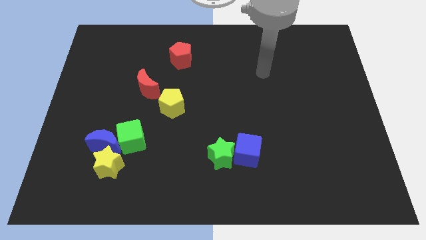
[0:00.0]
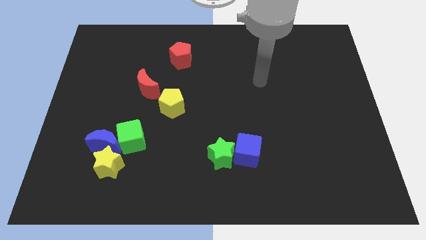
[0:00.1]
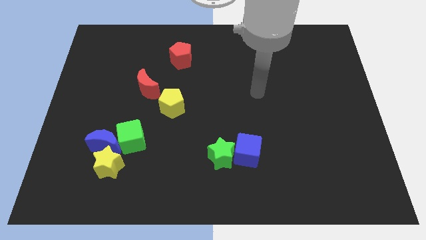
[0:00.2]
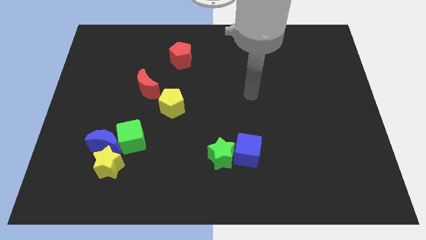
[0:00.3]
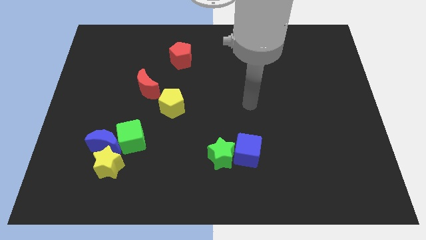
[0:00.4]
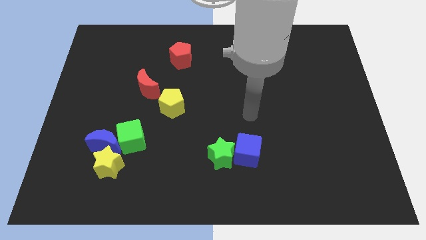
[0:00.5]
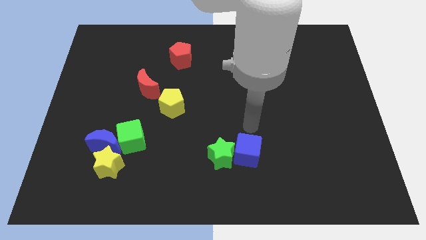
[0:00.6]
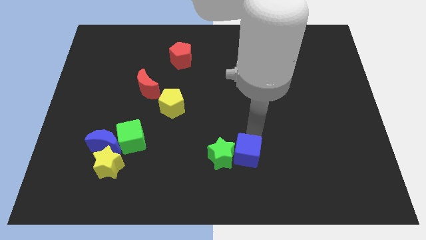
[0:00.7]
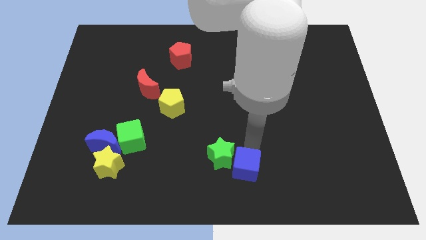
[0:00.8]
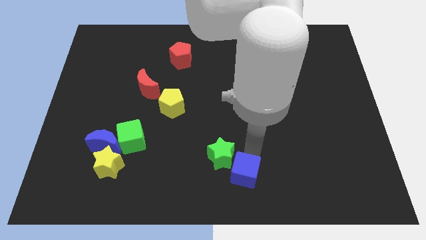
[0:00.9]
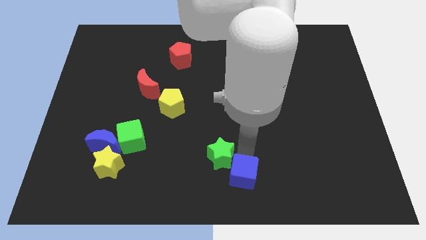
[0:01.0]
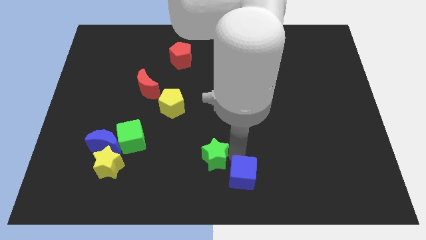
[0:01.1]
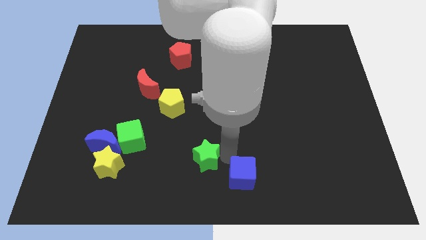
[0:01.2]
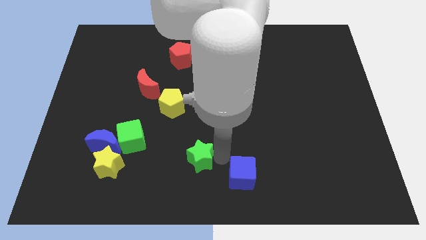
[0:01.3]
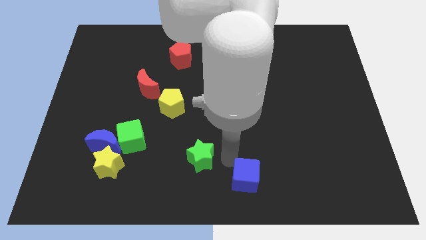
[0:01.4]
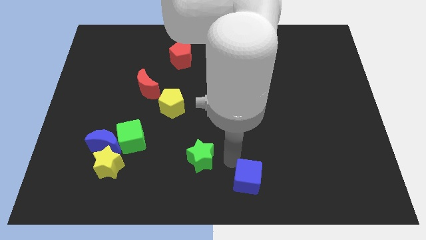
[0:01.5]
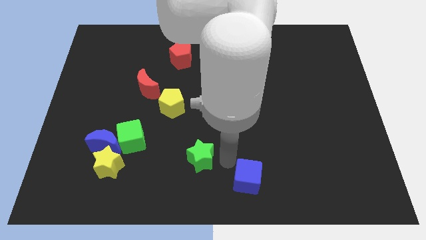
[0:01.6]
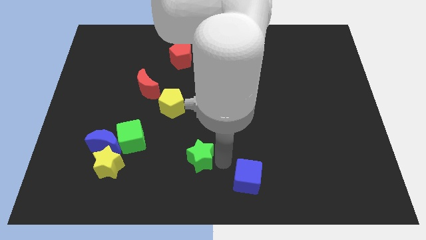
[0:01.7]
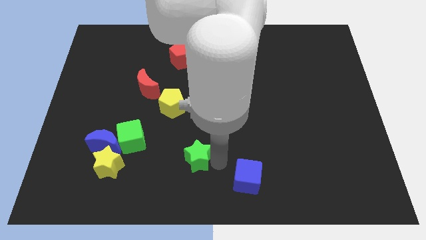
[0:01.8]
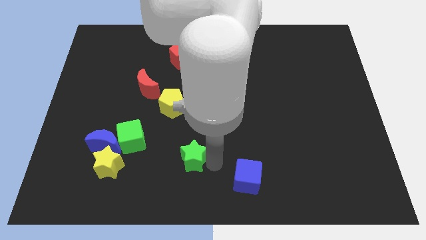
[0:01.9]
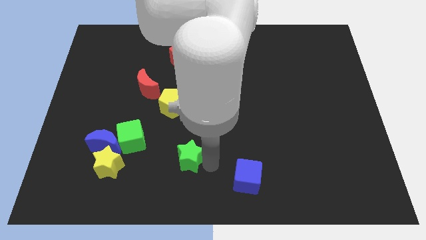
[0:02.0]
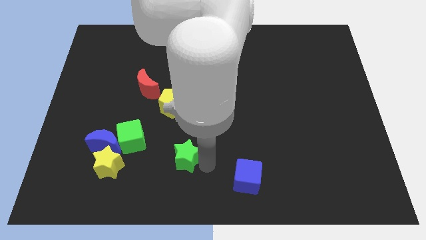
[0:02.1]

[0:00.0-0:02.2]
slightly slide the green star to the left

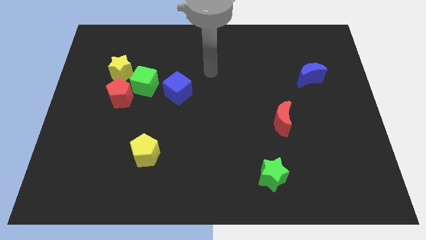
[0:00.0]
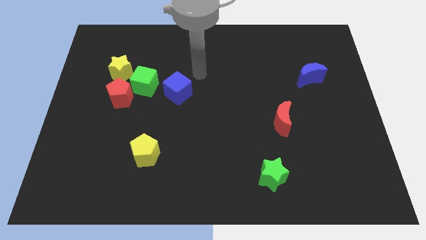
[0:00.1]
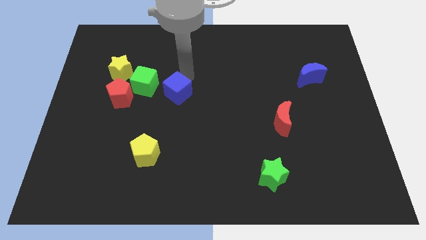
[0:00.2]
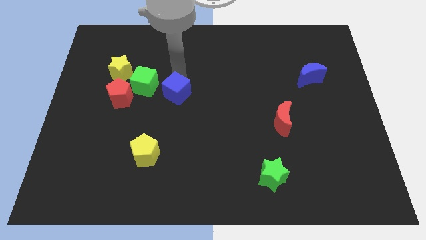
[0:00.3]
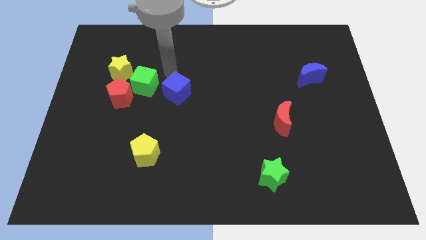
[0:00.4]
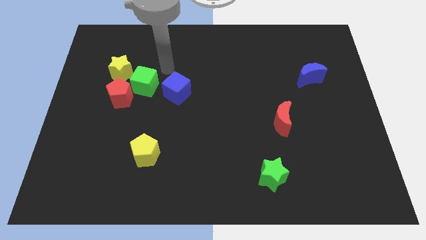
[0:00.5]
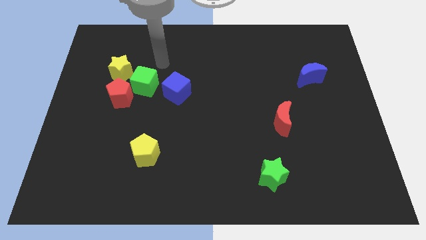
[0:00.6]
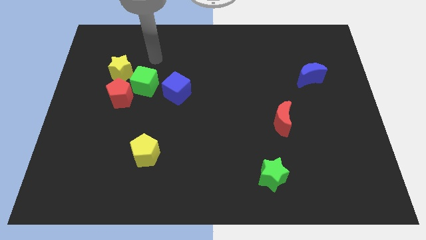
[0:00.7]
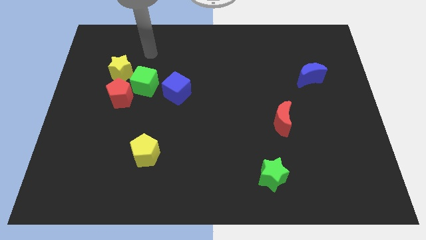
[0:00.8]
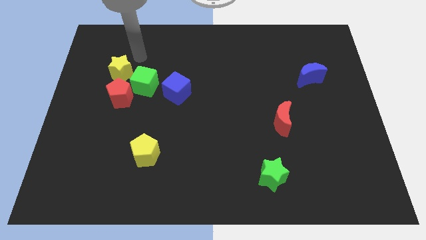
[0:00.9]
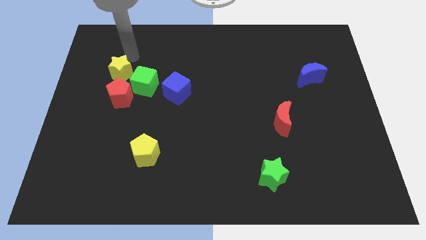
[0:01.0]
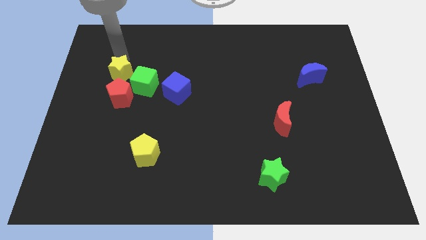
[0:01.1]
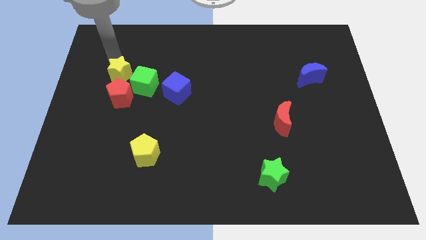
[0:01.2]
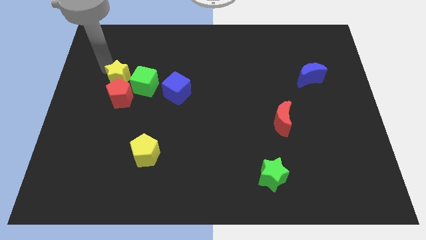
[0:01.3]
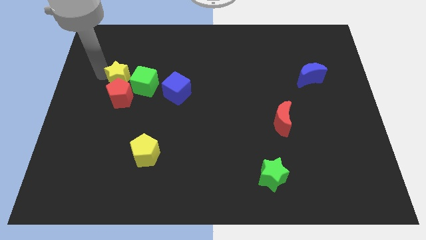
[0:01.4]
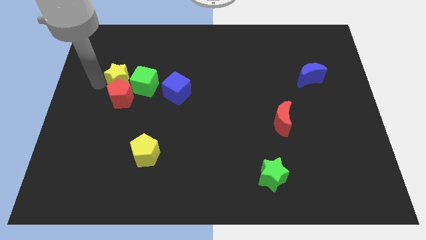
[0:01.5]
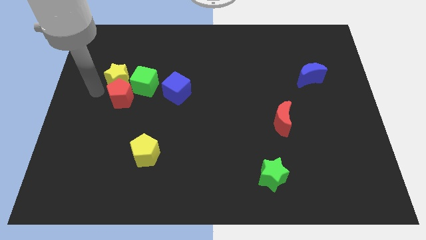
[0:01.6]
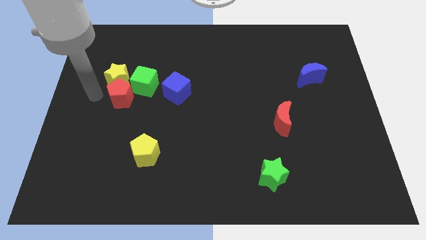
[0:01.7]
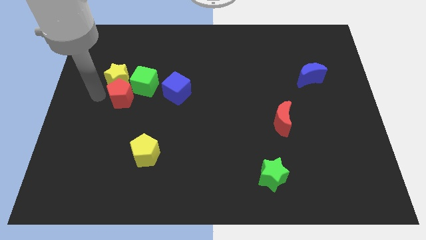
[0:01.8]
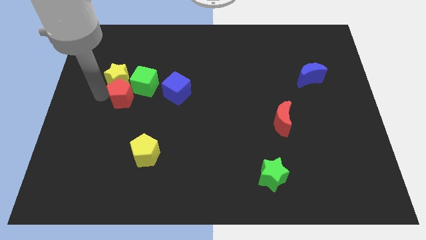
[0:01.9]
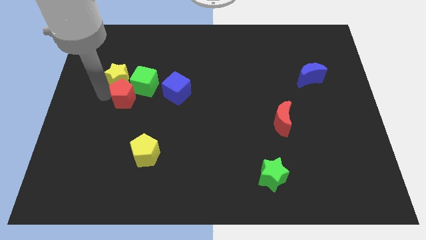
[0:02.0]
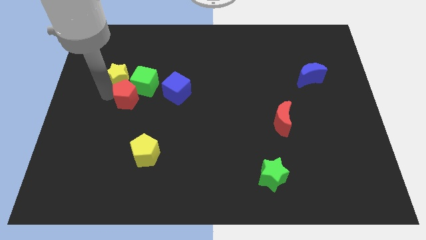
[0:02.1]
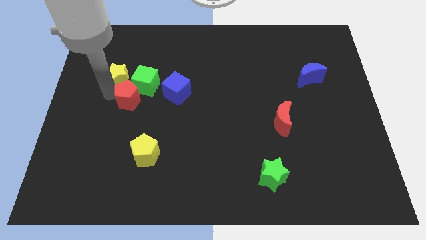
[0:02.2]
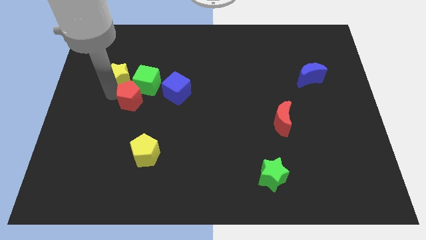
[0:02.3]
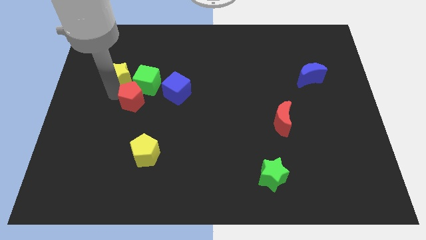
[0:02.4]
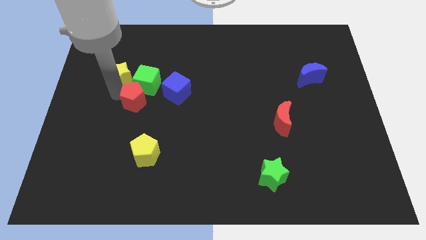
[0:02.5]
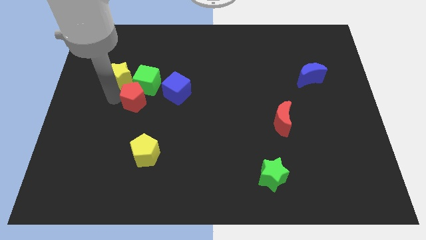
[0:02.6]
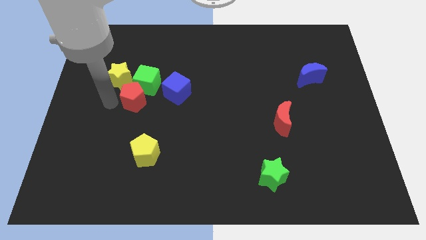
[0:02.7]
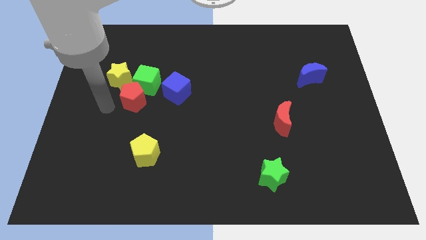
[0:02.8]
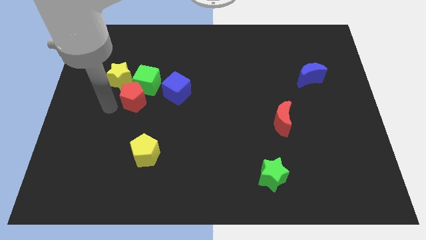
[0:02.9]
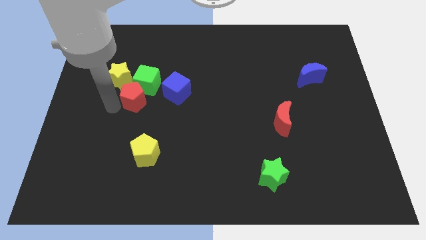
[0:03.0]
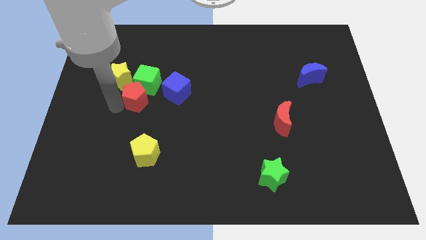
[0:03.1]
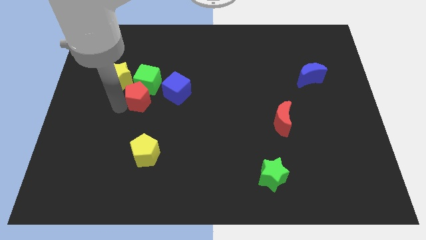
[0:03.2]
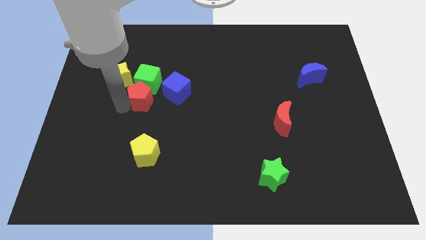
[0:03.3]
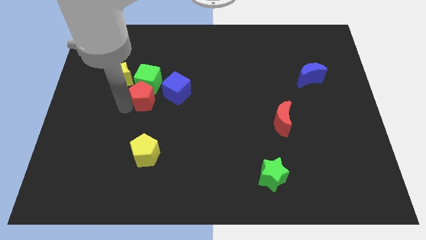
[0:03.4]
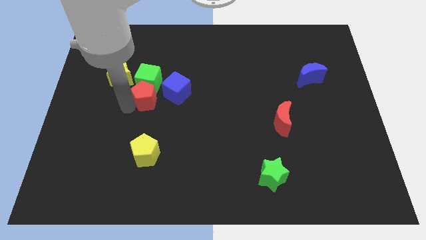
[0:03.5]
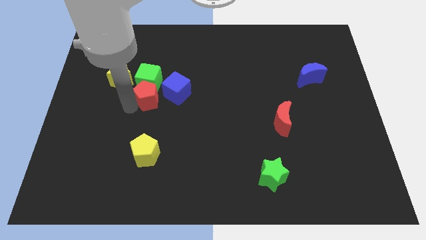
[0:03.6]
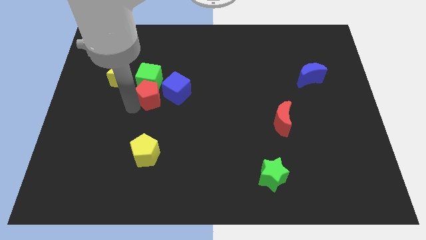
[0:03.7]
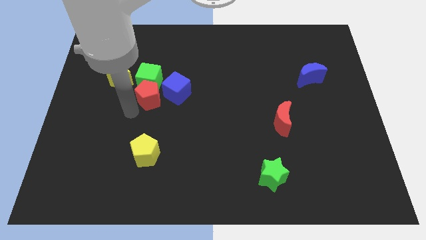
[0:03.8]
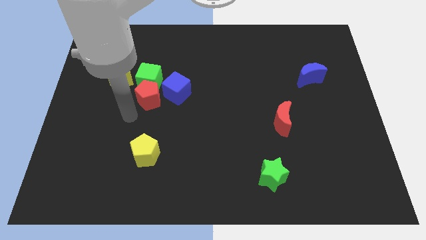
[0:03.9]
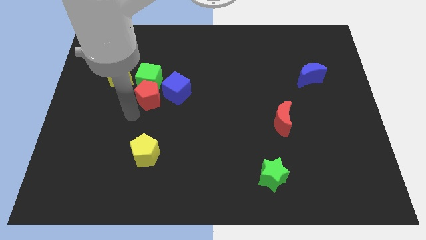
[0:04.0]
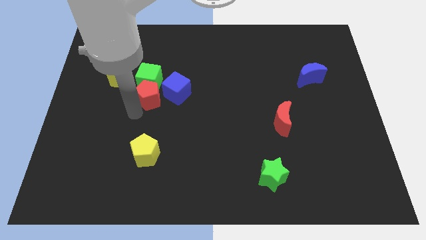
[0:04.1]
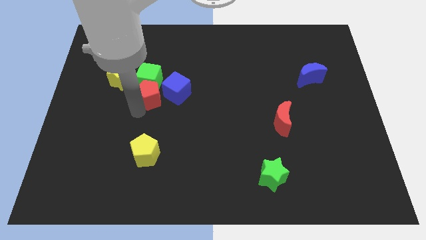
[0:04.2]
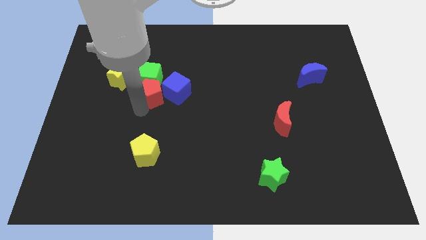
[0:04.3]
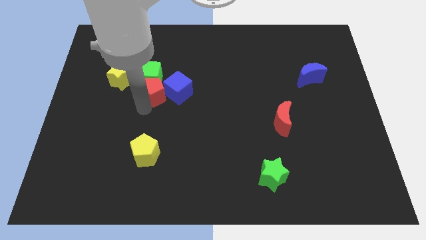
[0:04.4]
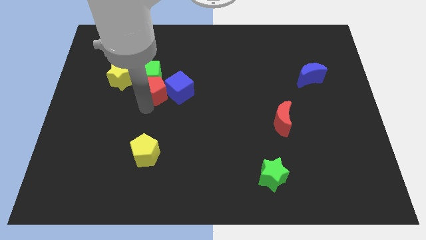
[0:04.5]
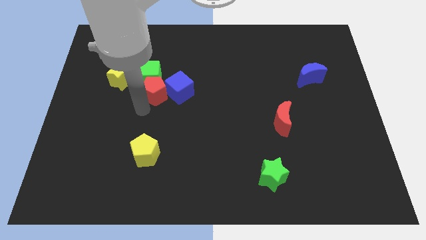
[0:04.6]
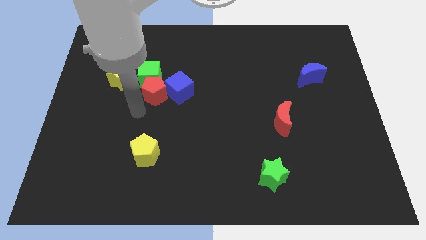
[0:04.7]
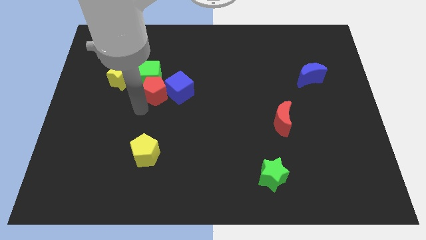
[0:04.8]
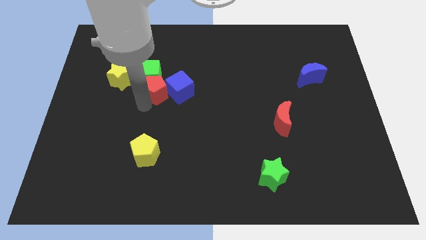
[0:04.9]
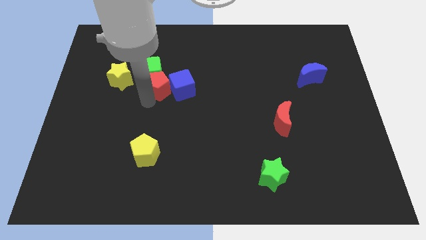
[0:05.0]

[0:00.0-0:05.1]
push the red pentagon slightly up and then right

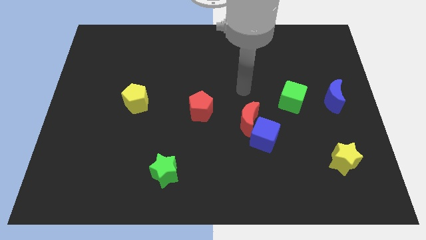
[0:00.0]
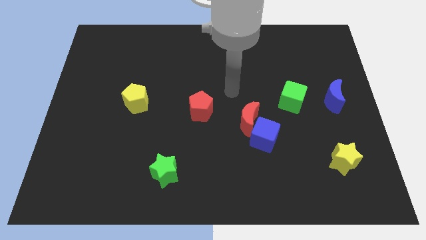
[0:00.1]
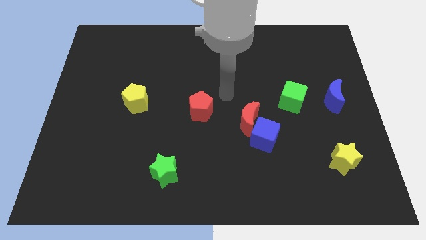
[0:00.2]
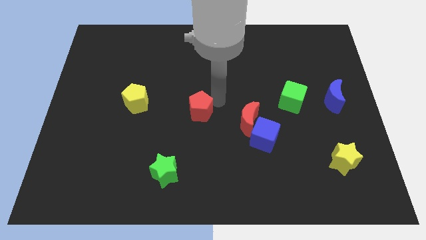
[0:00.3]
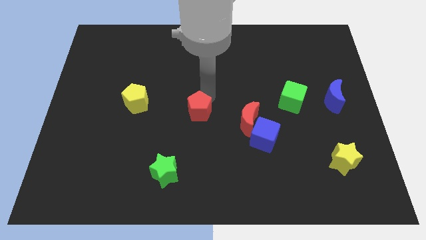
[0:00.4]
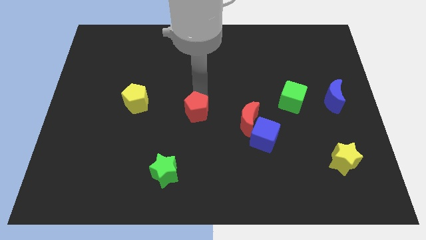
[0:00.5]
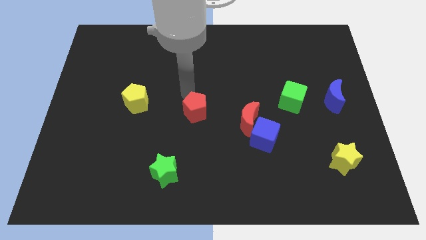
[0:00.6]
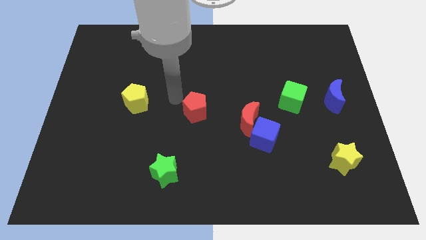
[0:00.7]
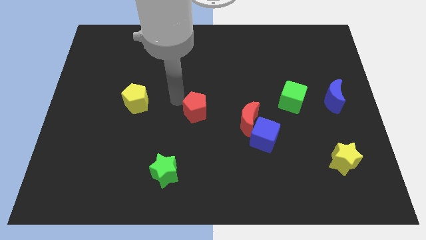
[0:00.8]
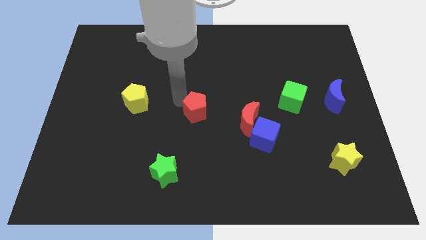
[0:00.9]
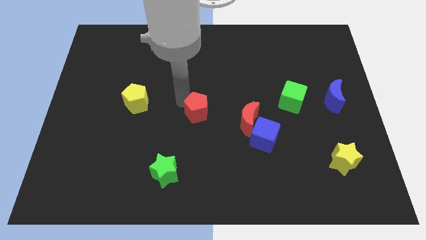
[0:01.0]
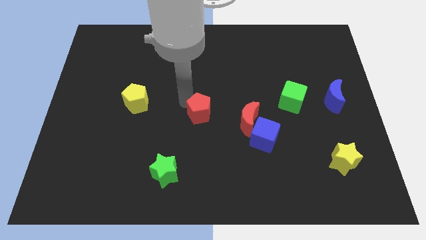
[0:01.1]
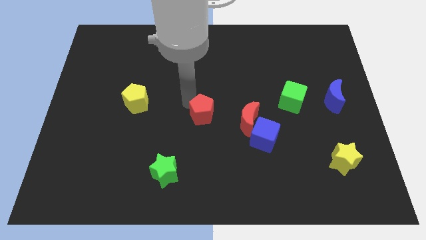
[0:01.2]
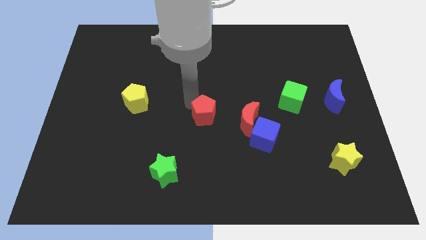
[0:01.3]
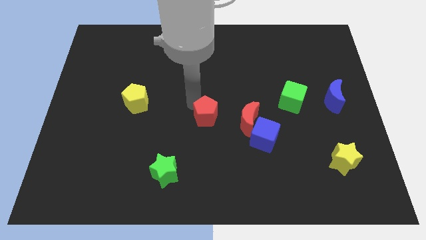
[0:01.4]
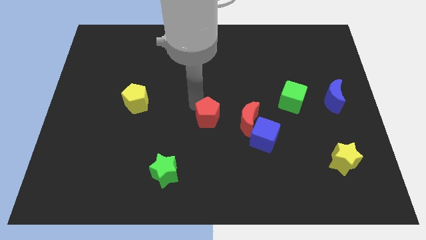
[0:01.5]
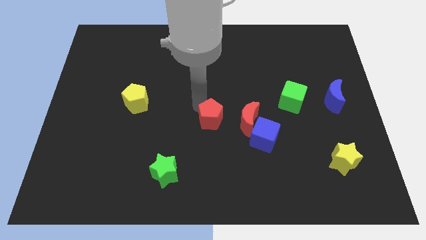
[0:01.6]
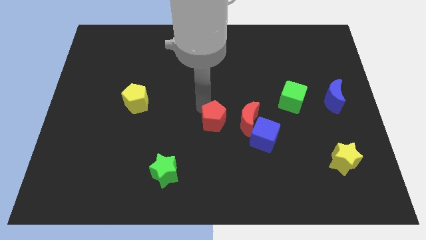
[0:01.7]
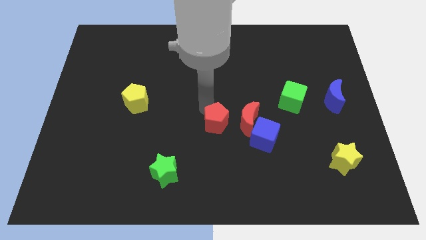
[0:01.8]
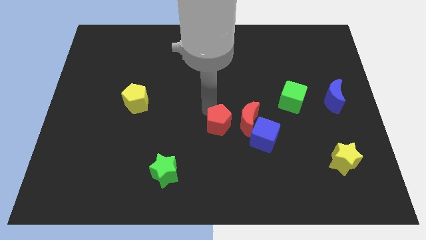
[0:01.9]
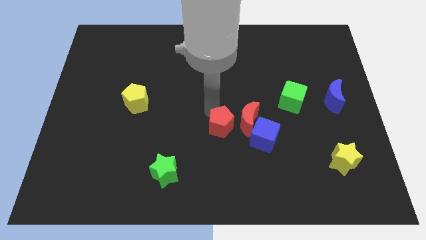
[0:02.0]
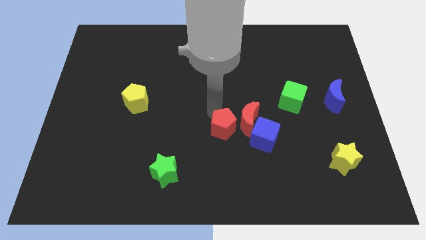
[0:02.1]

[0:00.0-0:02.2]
slide the red pentagon down and then right a bit
